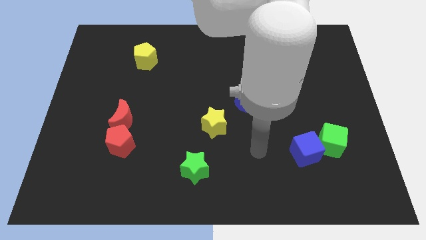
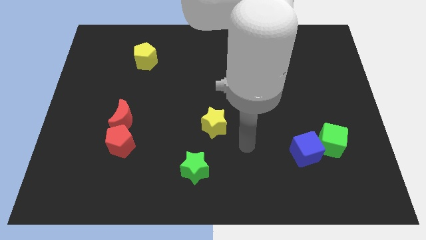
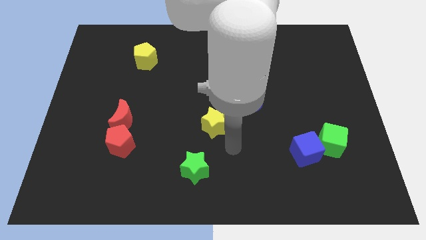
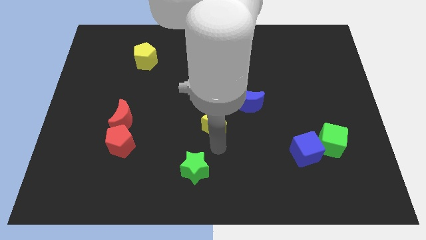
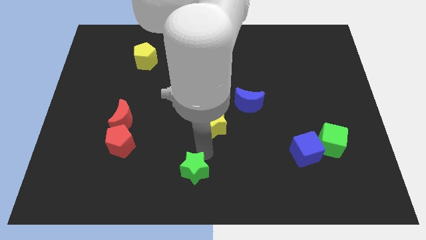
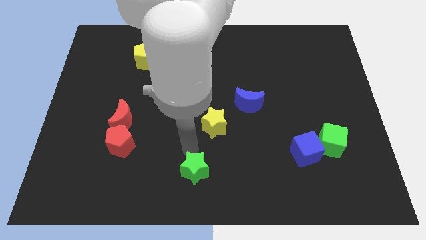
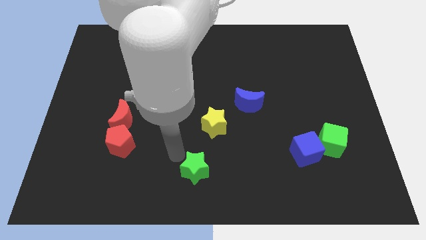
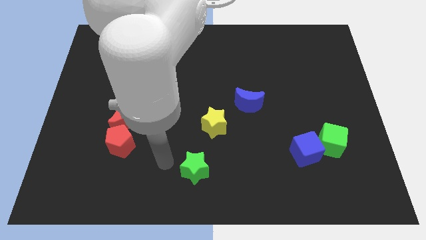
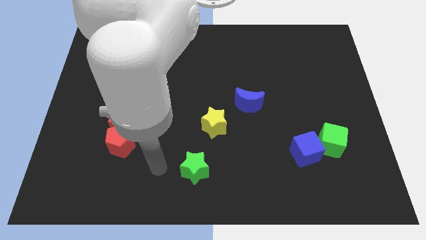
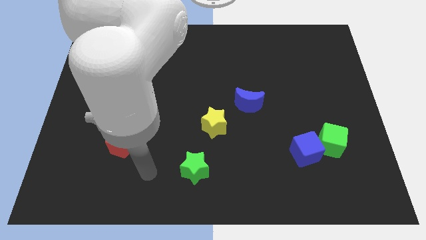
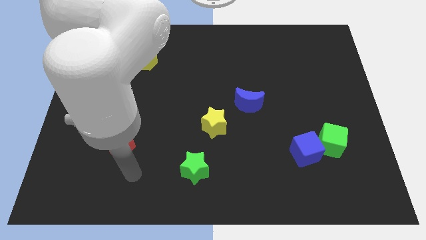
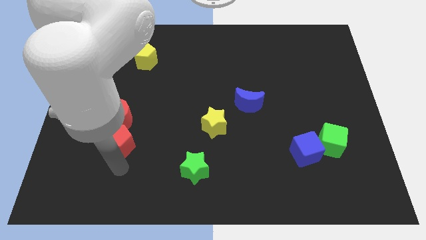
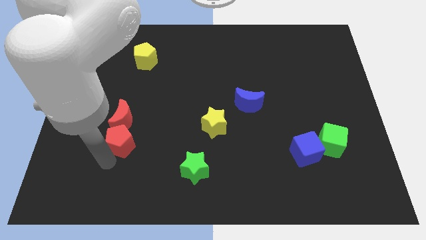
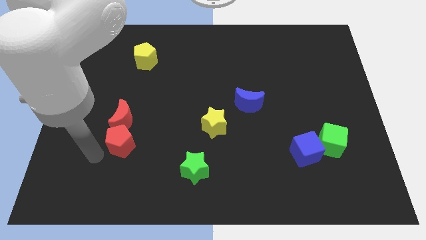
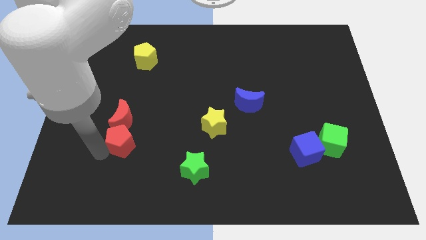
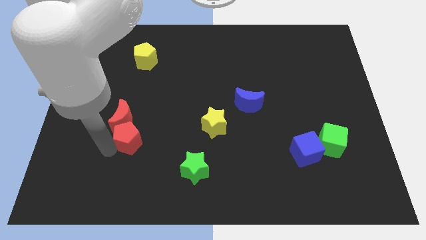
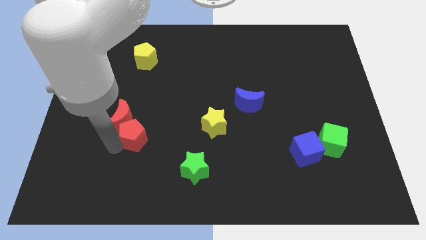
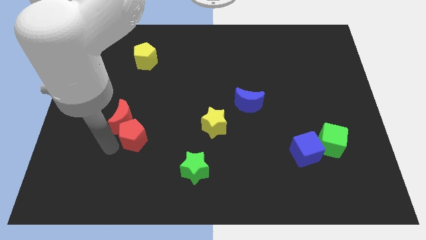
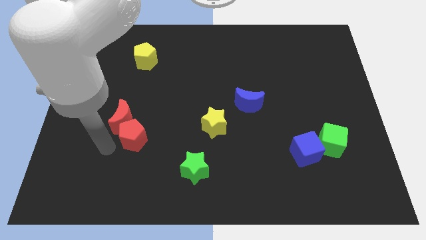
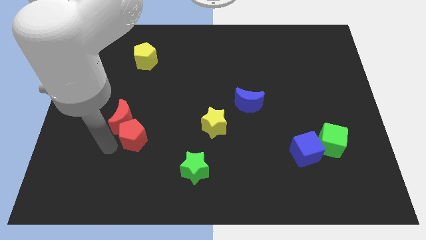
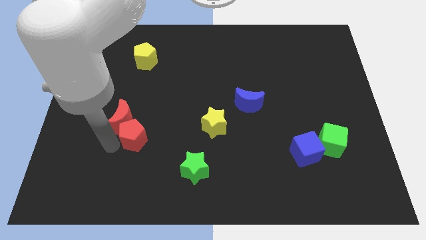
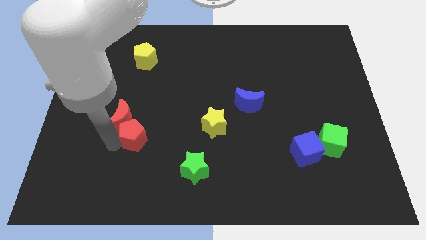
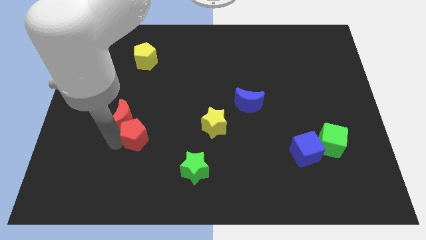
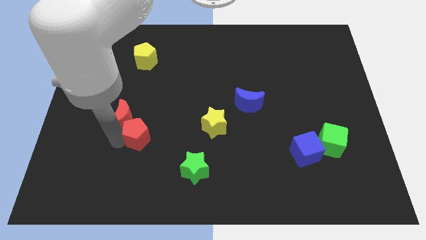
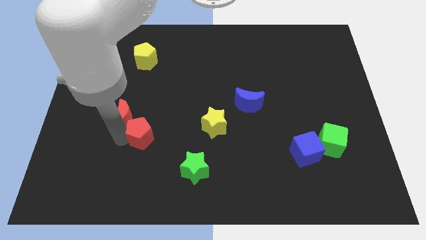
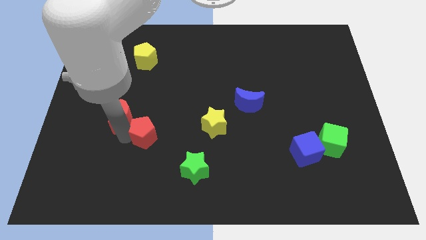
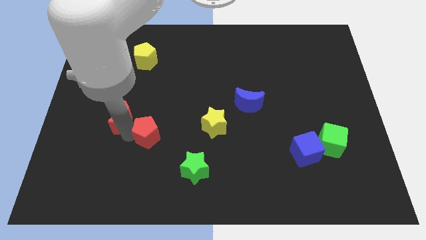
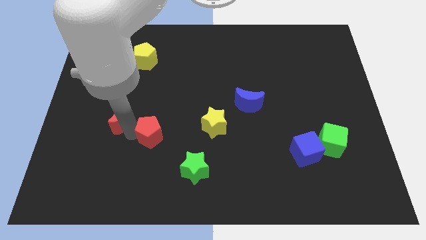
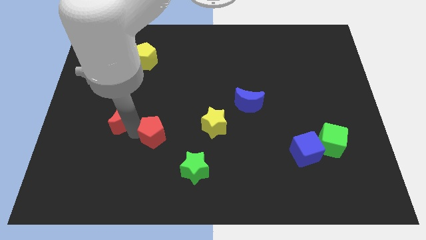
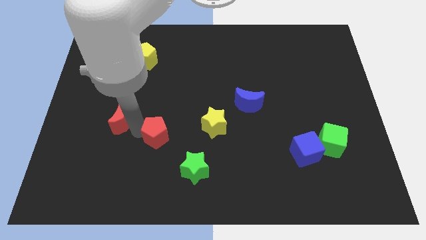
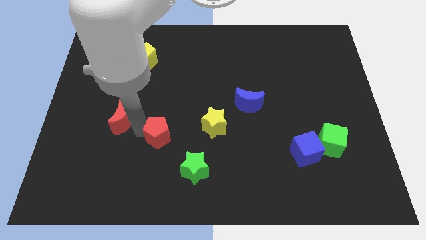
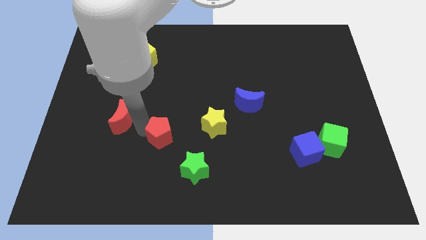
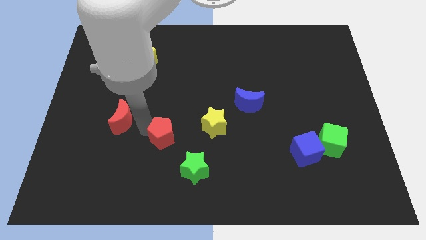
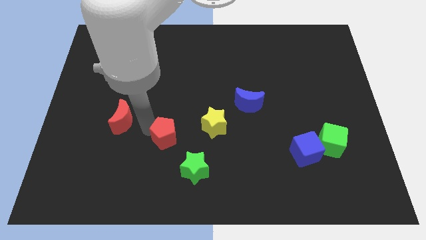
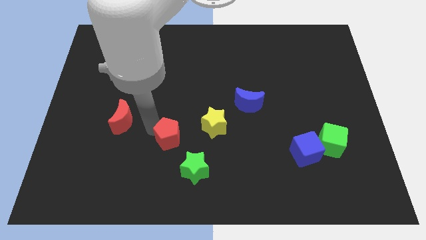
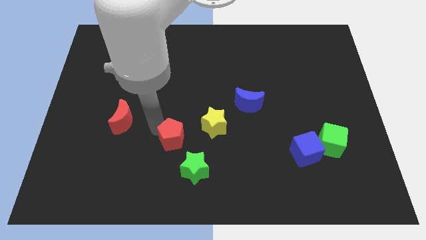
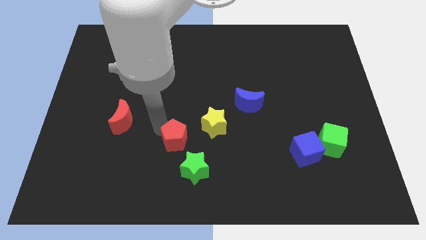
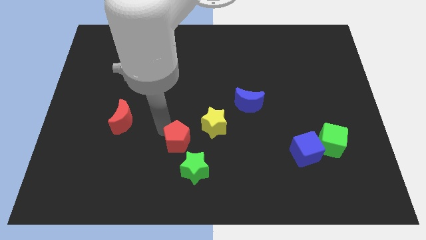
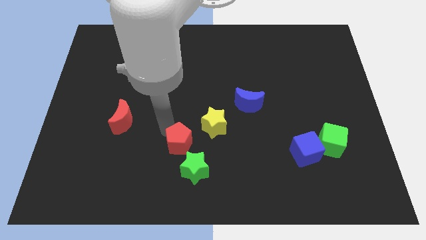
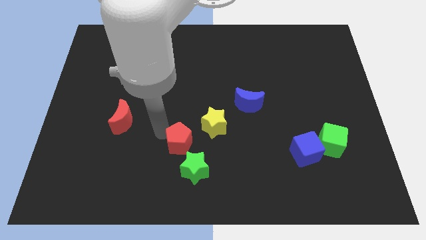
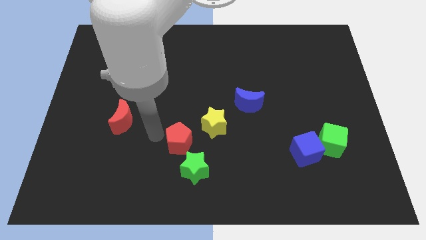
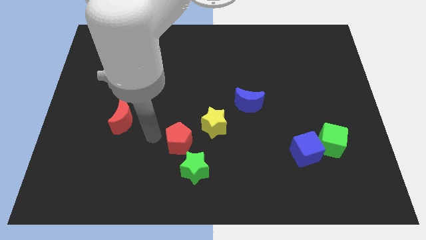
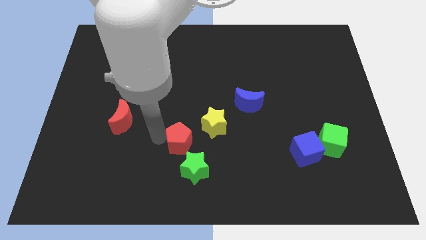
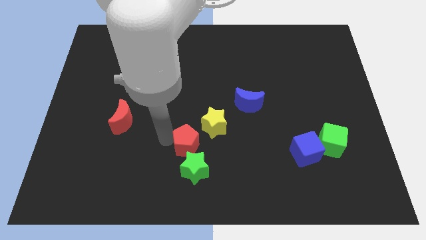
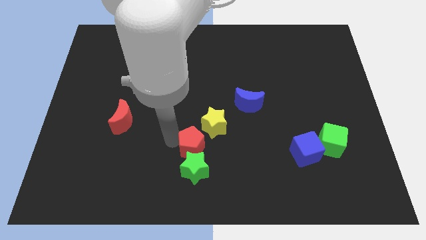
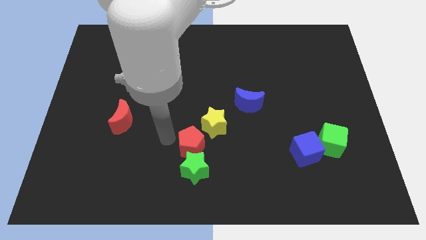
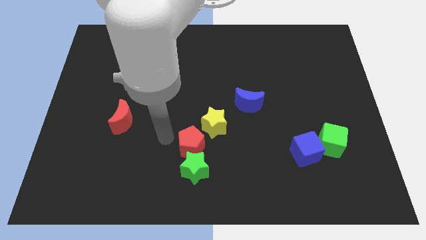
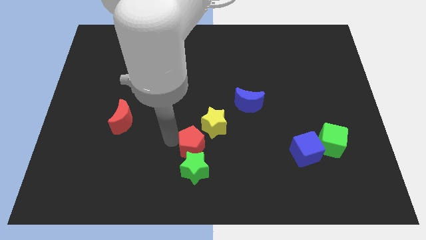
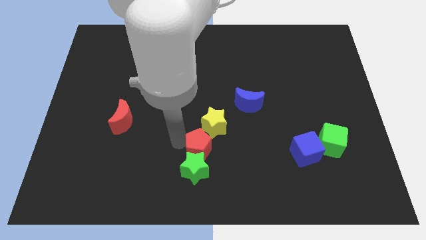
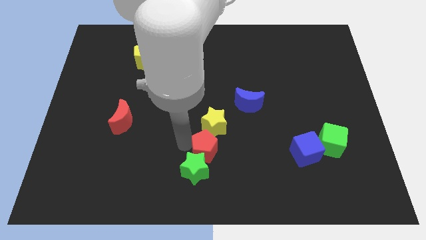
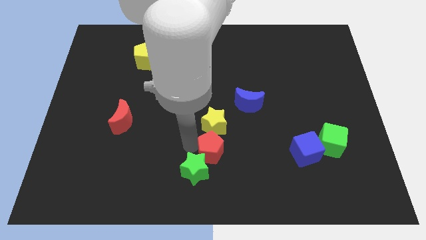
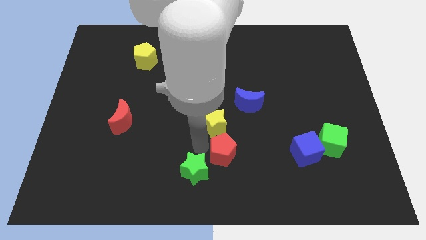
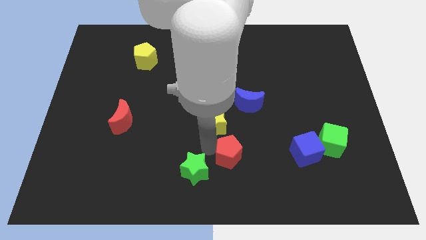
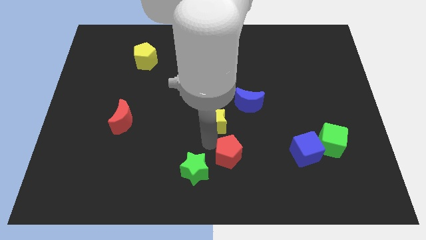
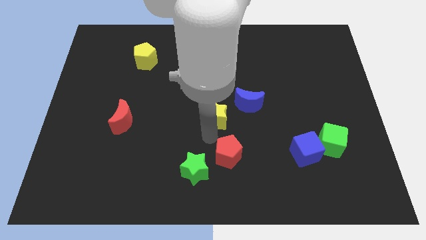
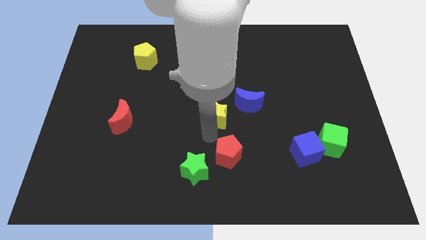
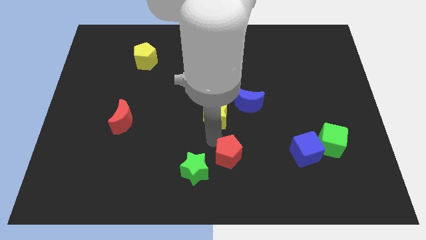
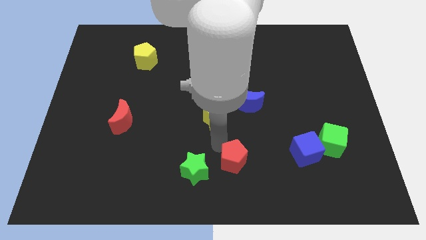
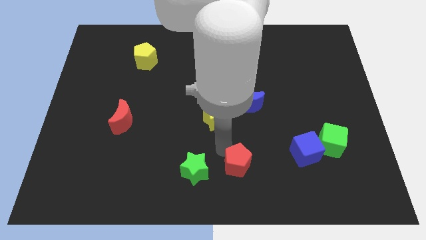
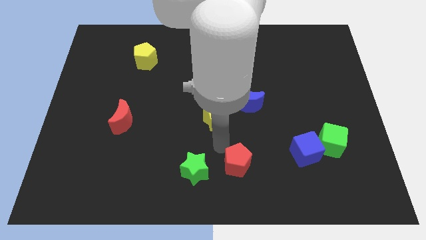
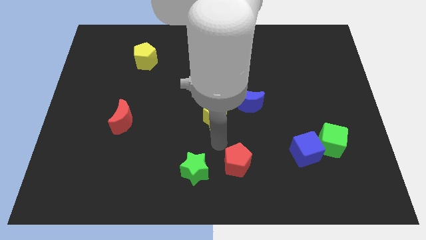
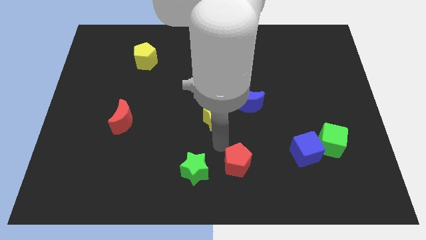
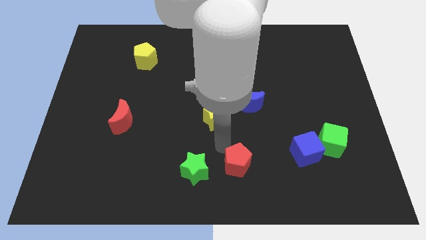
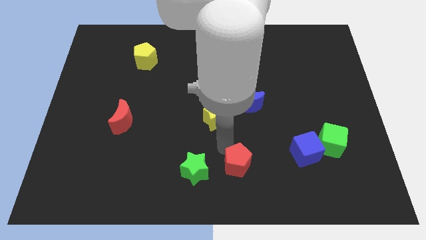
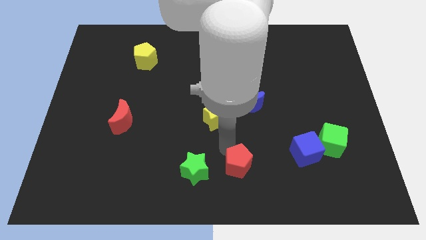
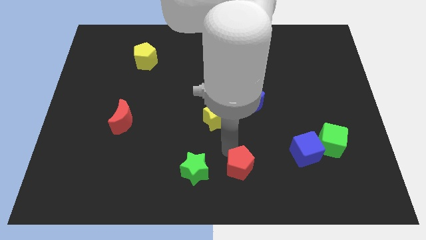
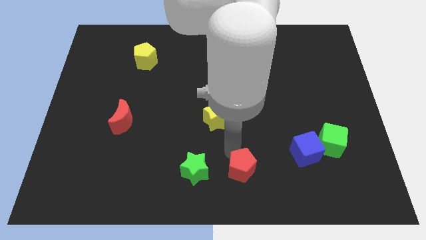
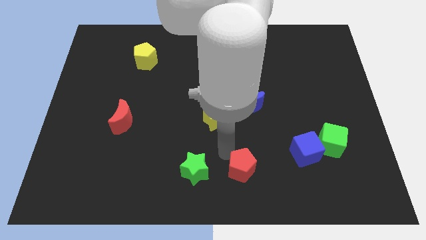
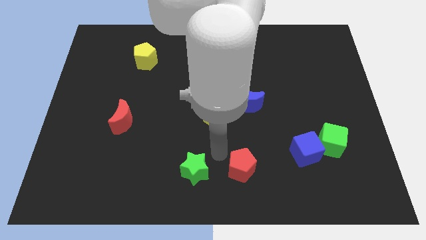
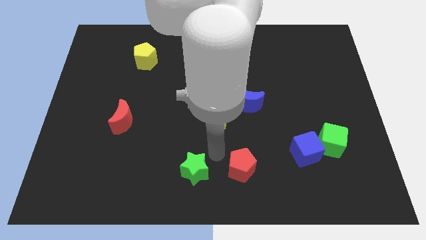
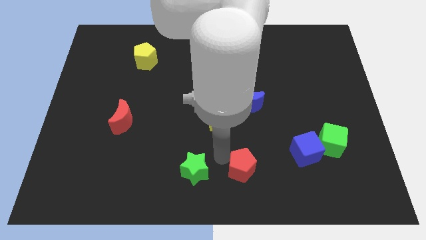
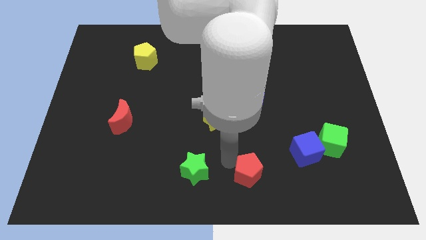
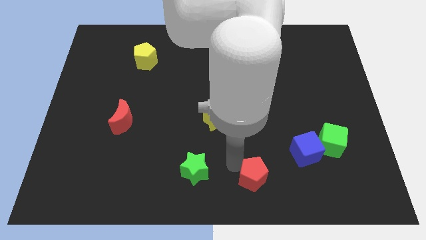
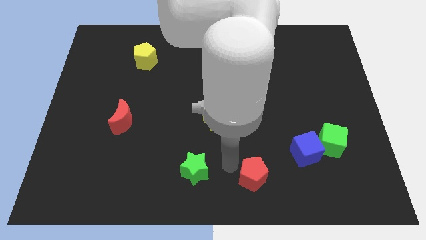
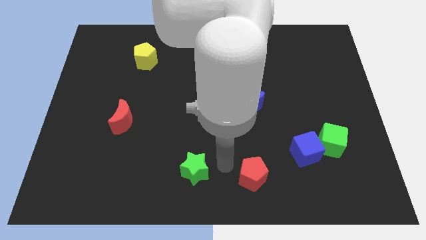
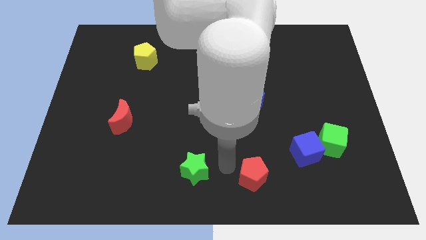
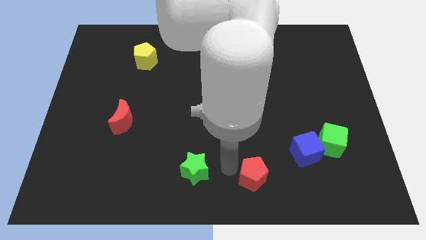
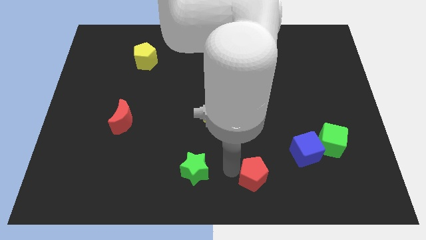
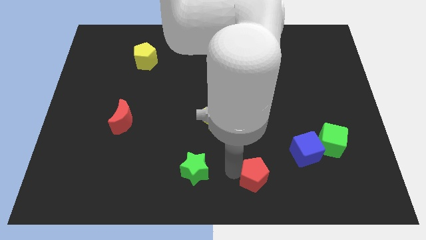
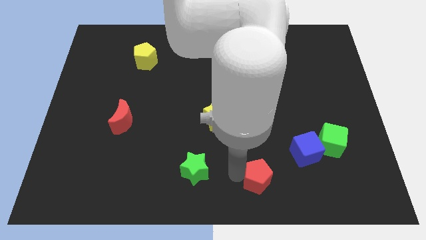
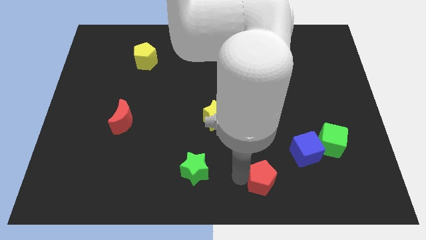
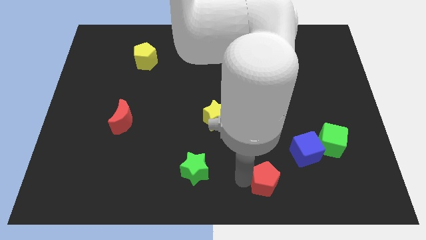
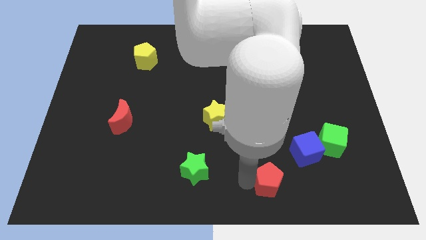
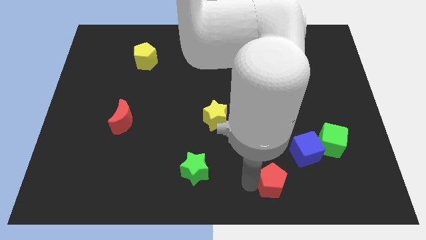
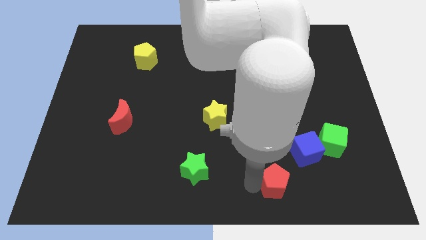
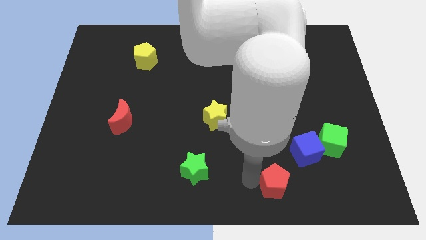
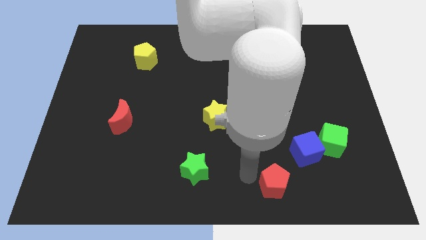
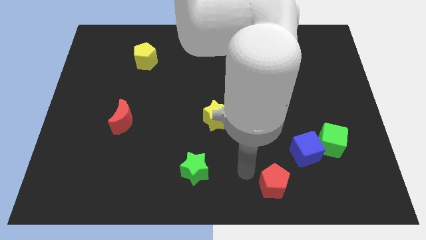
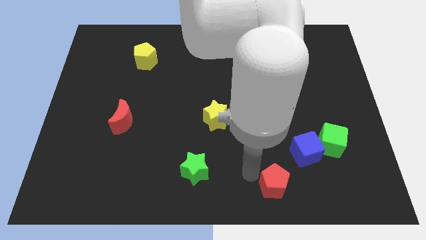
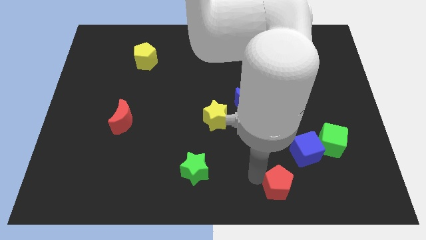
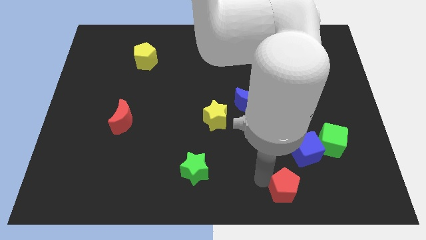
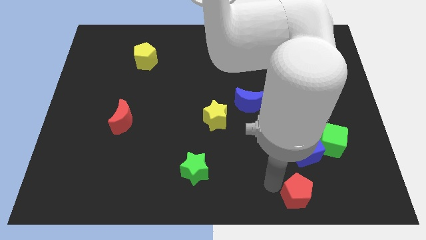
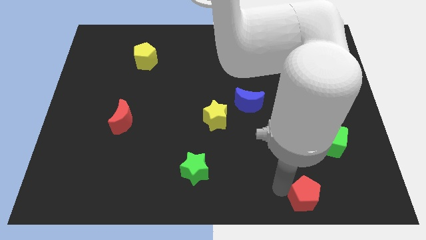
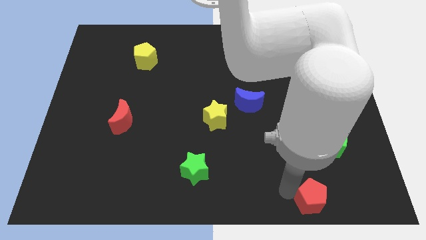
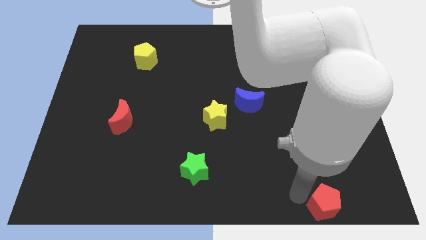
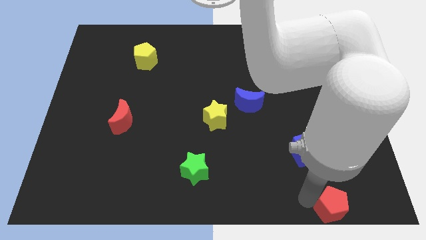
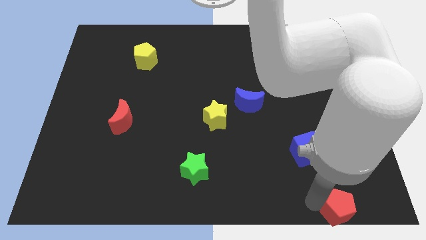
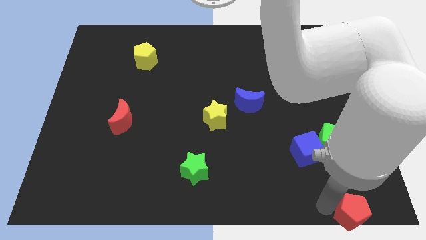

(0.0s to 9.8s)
move the red pentagon to the bottom right of the board
